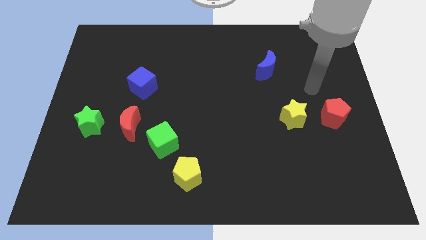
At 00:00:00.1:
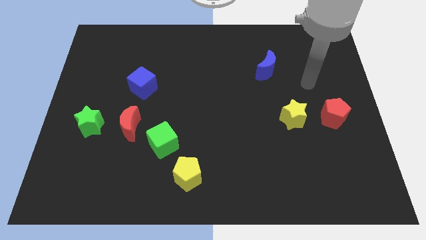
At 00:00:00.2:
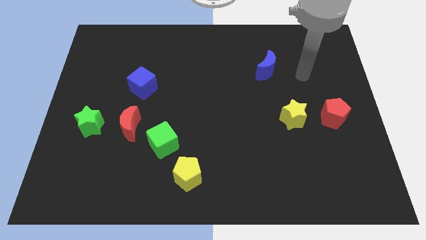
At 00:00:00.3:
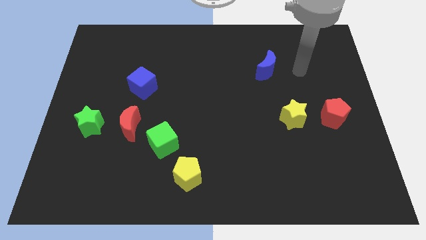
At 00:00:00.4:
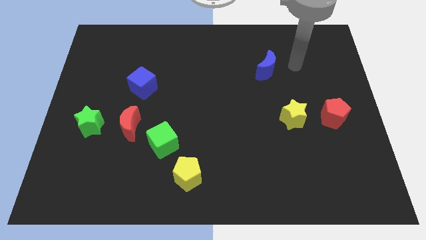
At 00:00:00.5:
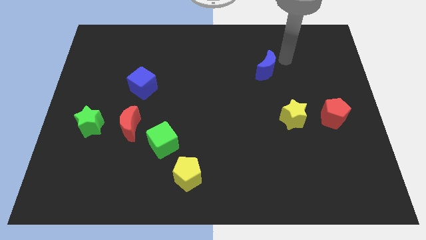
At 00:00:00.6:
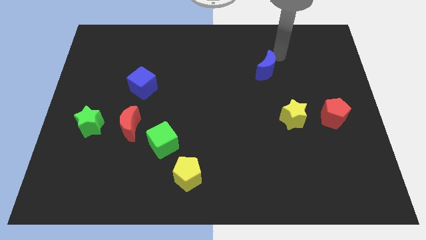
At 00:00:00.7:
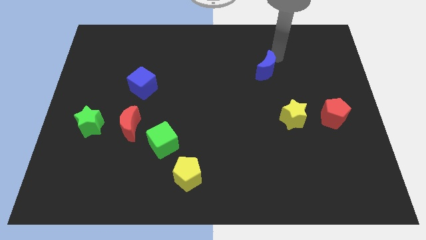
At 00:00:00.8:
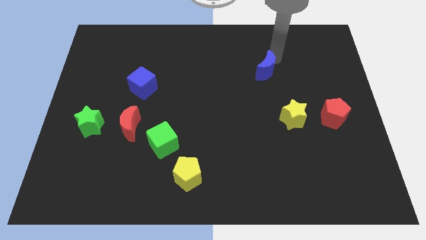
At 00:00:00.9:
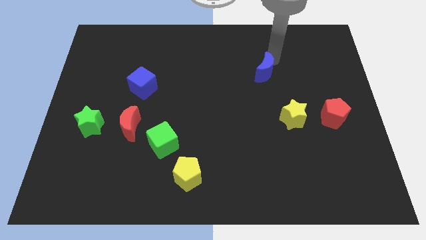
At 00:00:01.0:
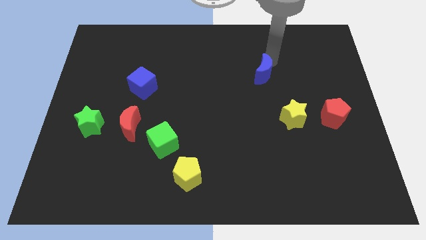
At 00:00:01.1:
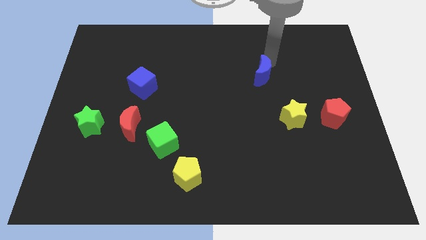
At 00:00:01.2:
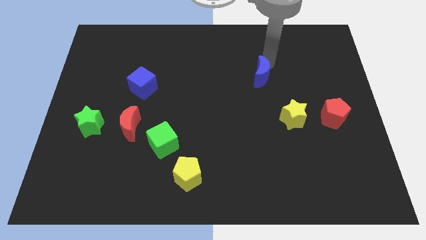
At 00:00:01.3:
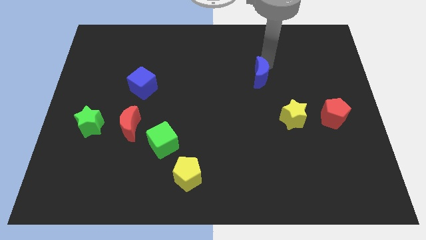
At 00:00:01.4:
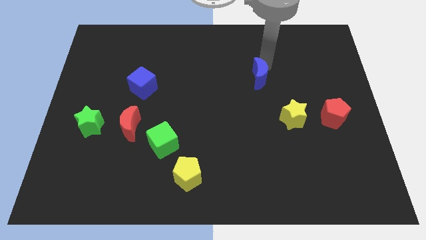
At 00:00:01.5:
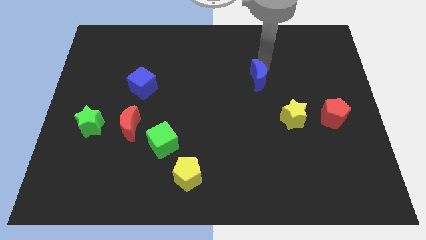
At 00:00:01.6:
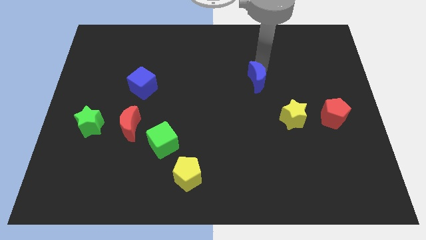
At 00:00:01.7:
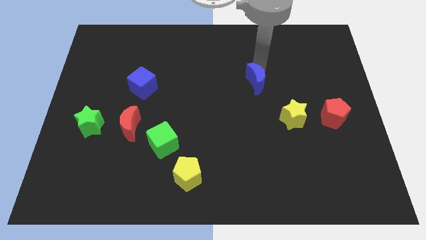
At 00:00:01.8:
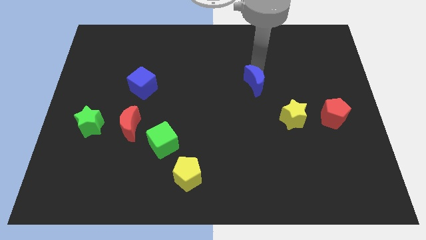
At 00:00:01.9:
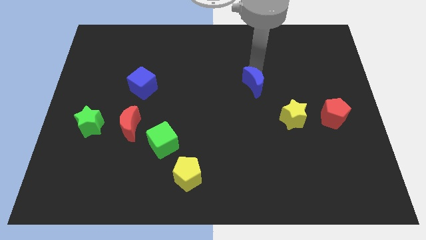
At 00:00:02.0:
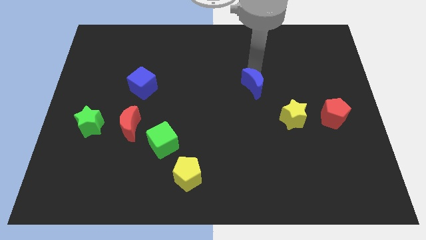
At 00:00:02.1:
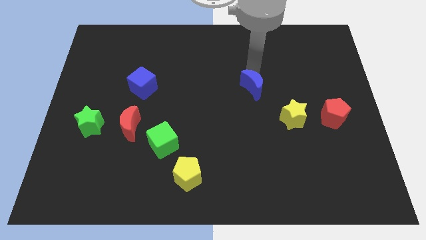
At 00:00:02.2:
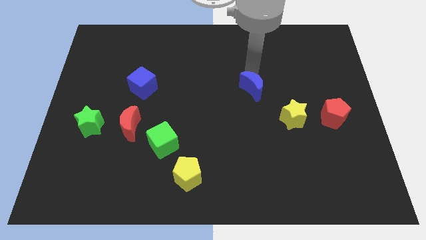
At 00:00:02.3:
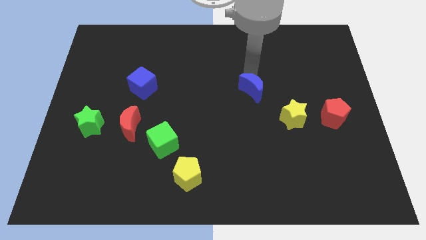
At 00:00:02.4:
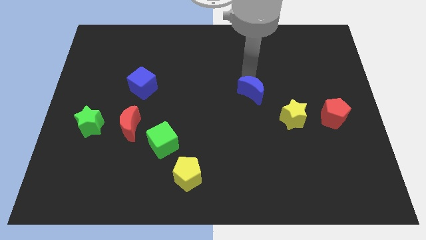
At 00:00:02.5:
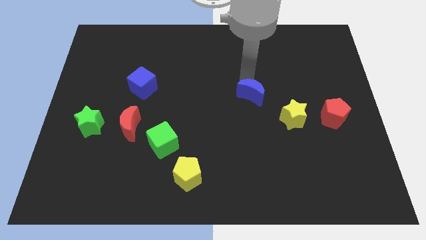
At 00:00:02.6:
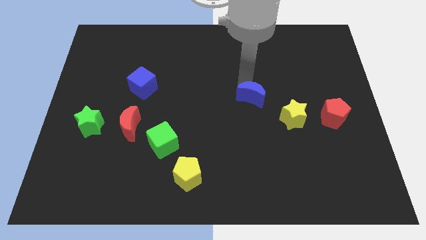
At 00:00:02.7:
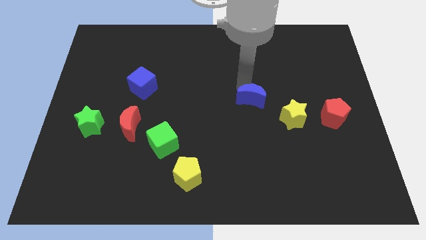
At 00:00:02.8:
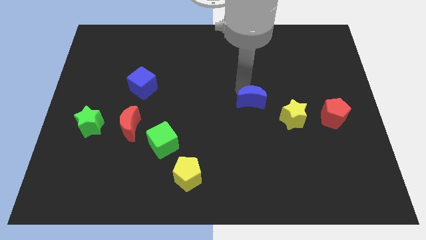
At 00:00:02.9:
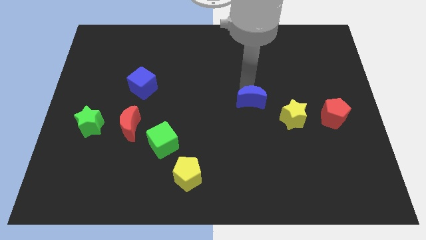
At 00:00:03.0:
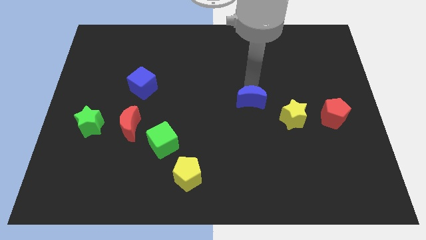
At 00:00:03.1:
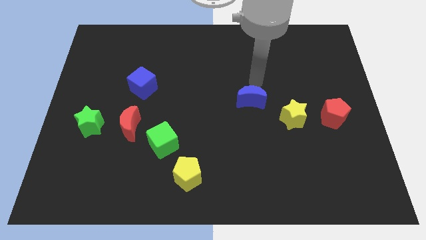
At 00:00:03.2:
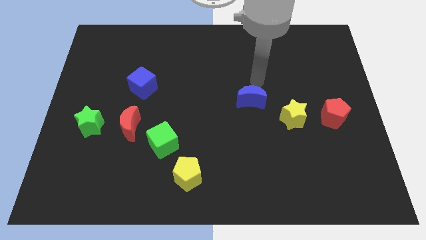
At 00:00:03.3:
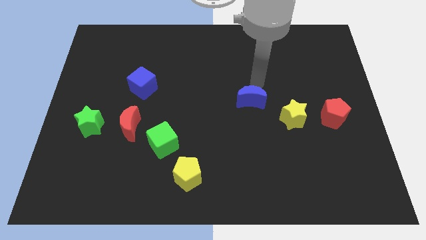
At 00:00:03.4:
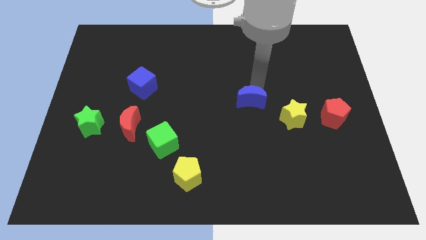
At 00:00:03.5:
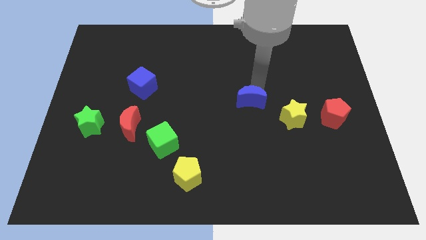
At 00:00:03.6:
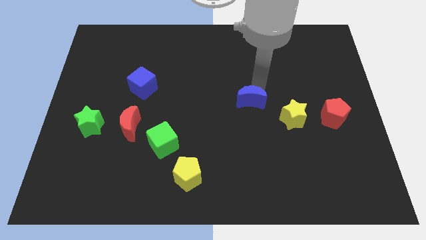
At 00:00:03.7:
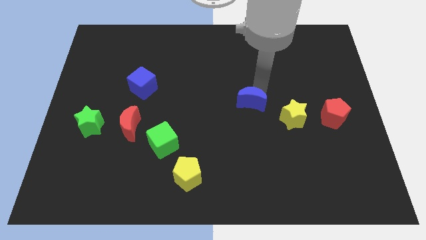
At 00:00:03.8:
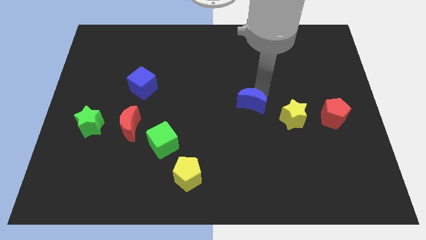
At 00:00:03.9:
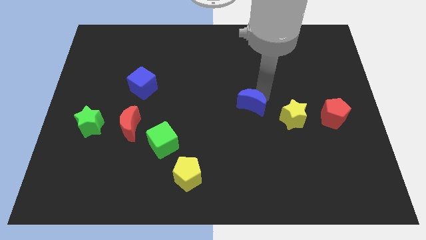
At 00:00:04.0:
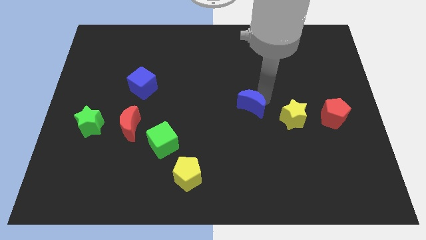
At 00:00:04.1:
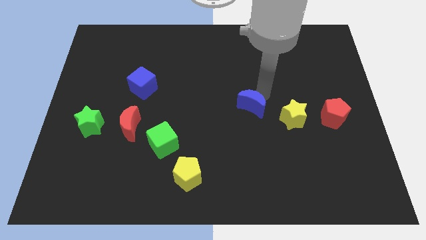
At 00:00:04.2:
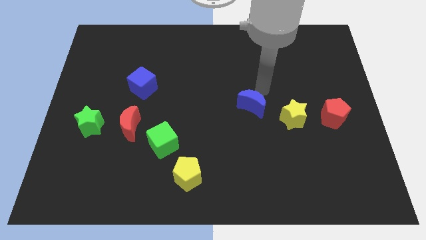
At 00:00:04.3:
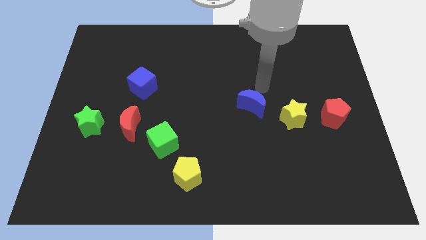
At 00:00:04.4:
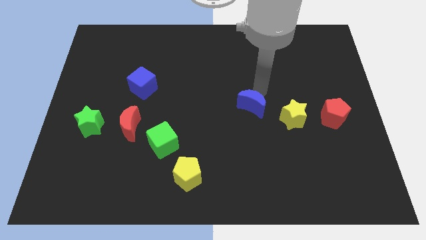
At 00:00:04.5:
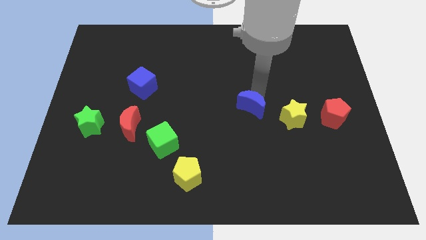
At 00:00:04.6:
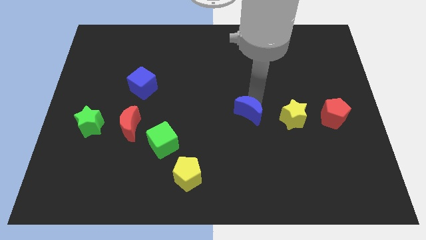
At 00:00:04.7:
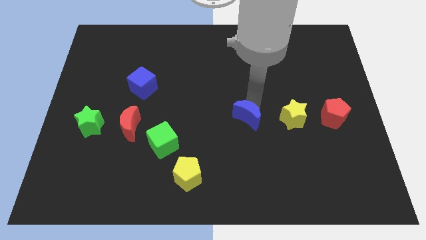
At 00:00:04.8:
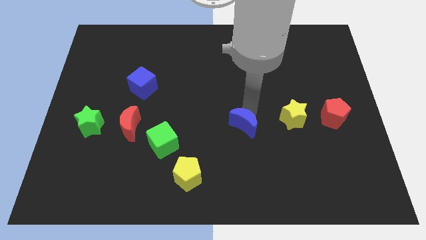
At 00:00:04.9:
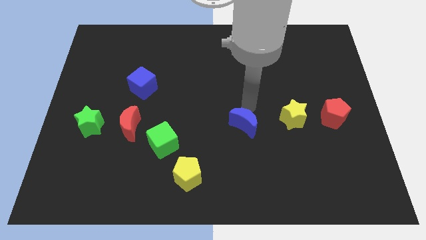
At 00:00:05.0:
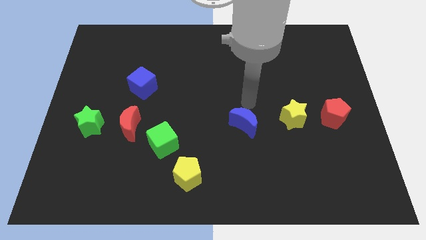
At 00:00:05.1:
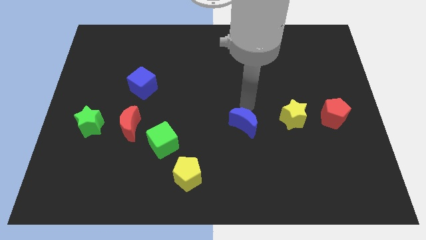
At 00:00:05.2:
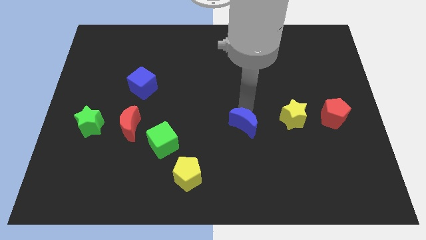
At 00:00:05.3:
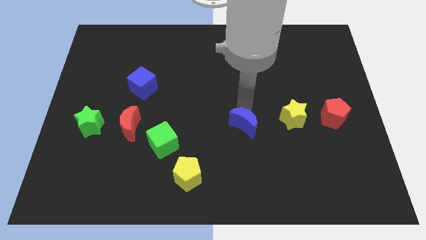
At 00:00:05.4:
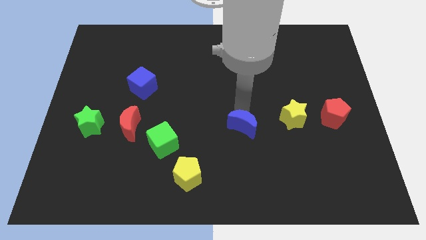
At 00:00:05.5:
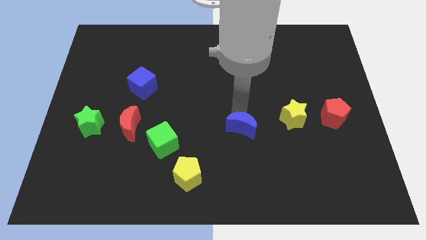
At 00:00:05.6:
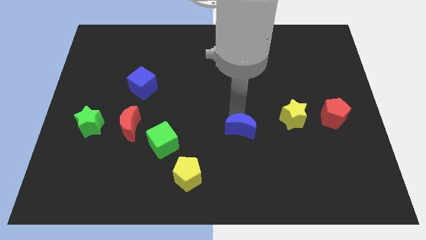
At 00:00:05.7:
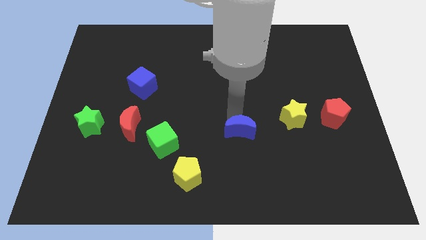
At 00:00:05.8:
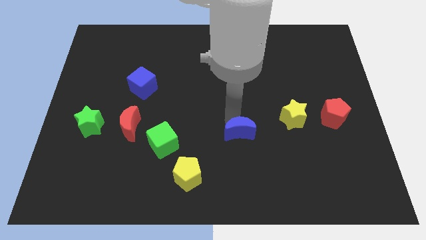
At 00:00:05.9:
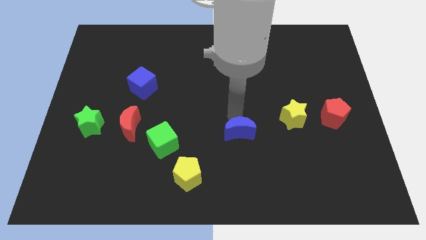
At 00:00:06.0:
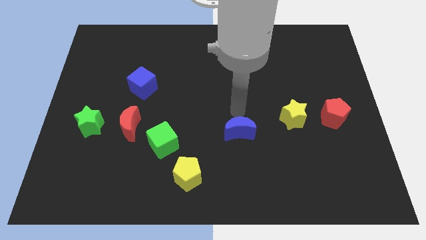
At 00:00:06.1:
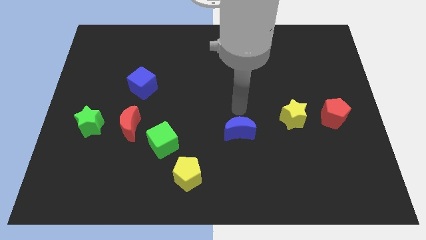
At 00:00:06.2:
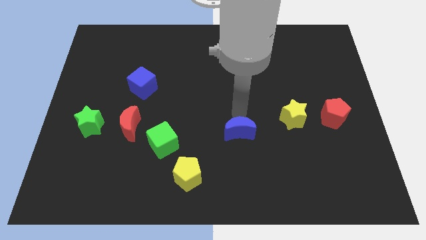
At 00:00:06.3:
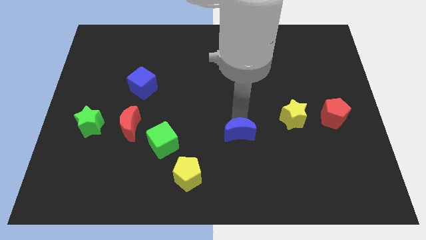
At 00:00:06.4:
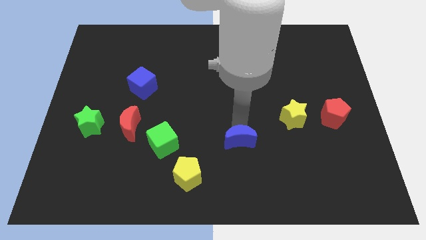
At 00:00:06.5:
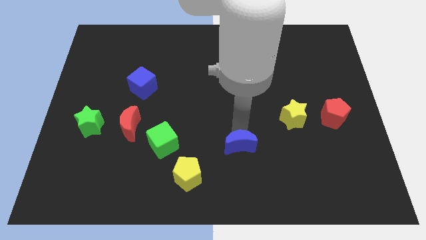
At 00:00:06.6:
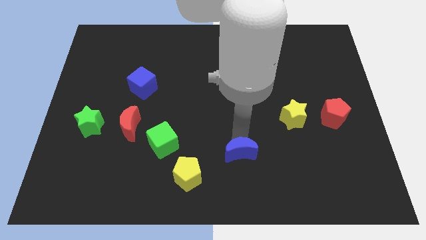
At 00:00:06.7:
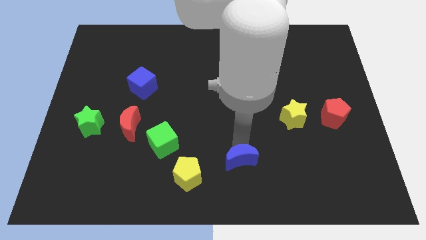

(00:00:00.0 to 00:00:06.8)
move the blue moon to the right of the yellow pentagon
